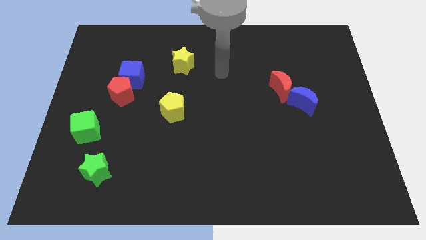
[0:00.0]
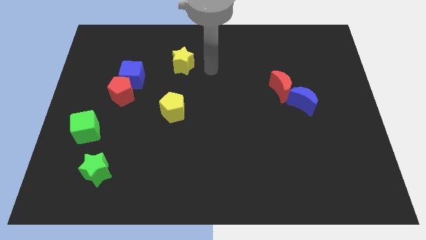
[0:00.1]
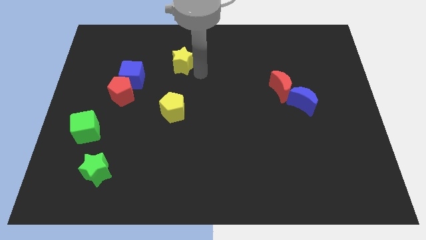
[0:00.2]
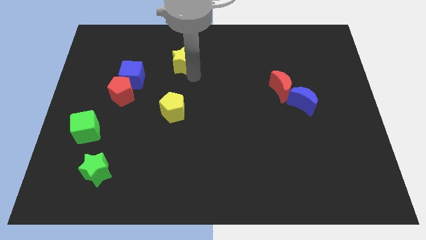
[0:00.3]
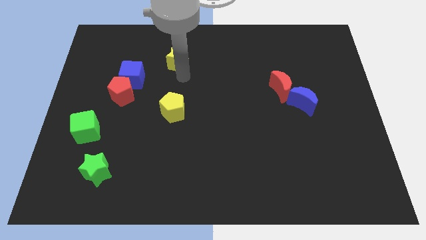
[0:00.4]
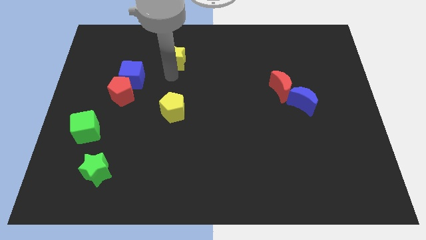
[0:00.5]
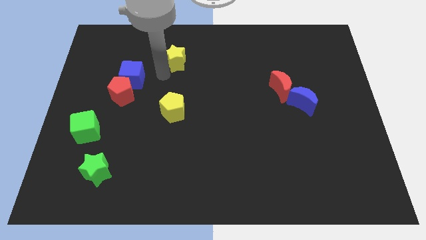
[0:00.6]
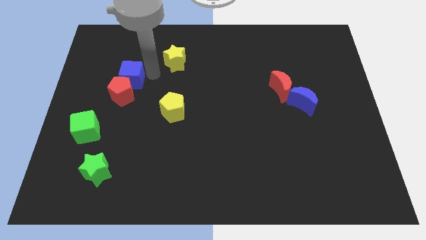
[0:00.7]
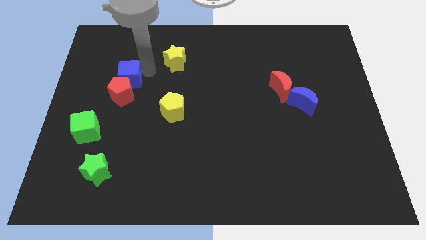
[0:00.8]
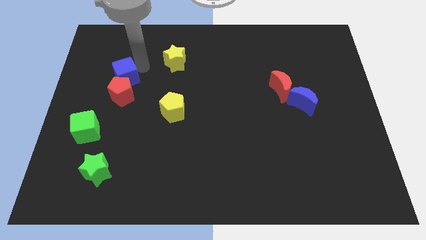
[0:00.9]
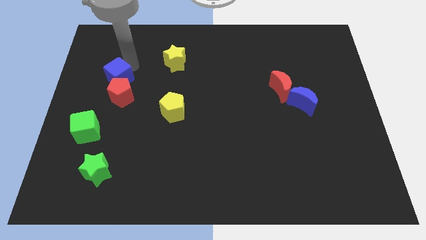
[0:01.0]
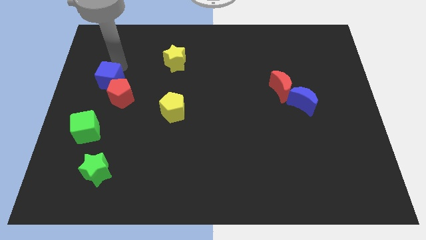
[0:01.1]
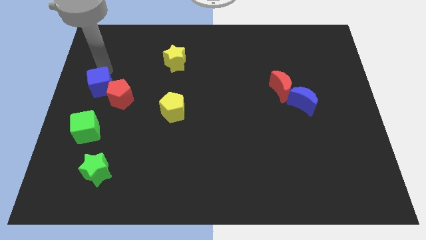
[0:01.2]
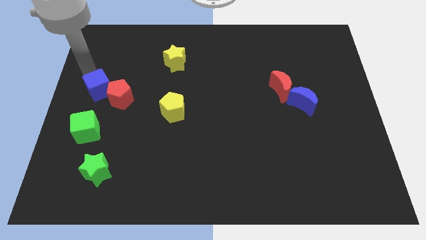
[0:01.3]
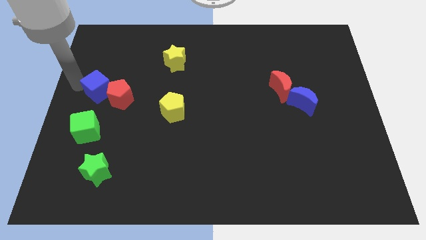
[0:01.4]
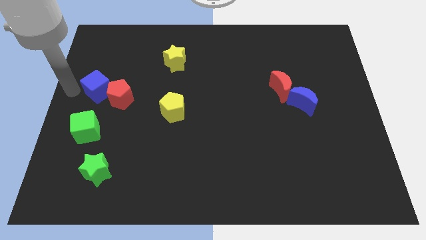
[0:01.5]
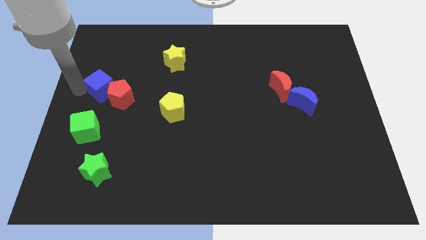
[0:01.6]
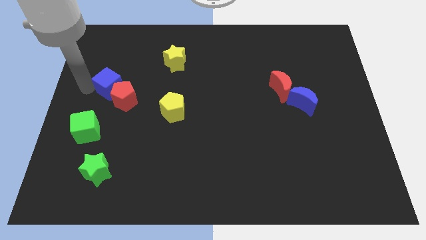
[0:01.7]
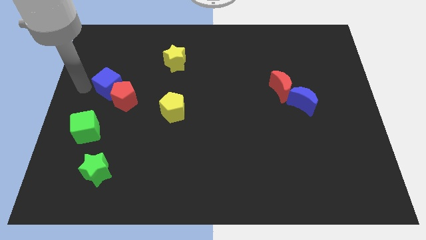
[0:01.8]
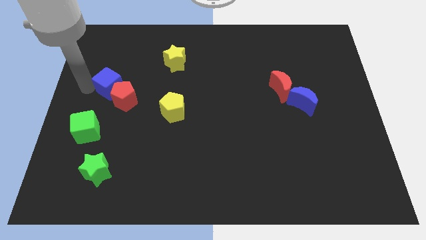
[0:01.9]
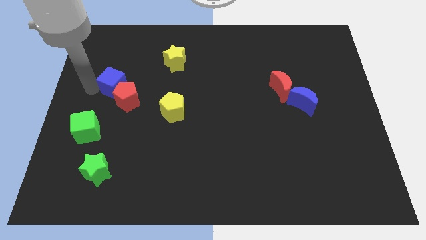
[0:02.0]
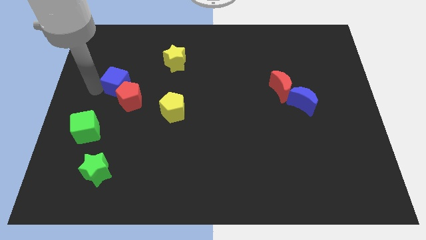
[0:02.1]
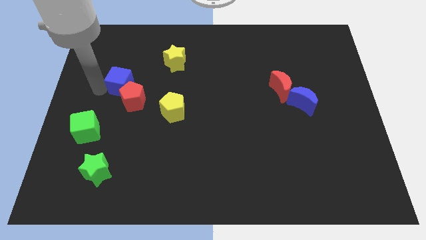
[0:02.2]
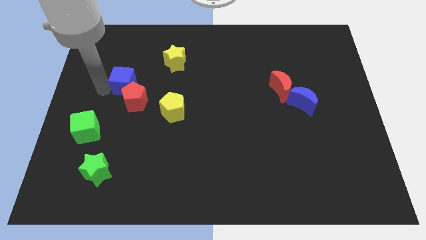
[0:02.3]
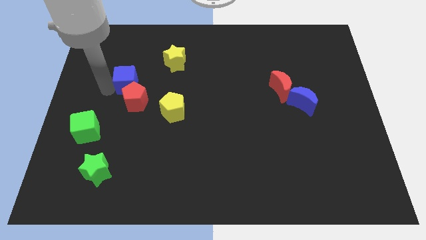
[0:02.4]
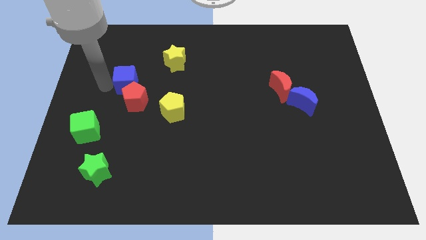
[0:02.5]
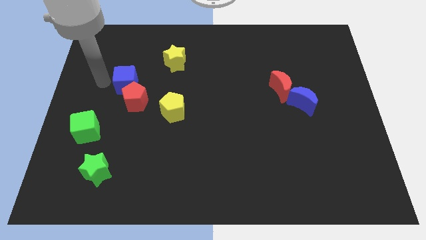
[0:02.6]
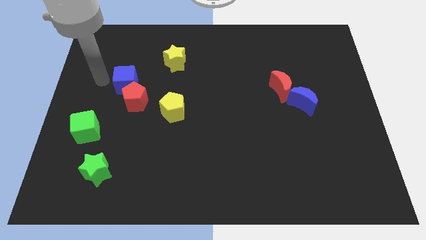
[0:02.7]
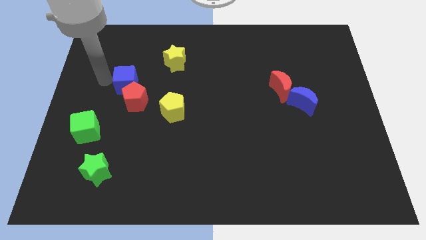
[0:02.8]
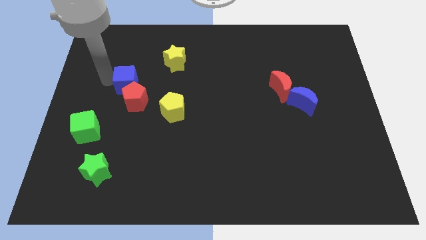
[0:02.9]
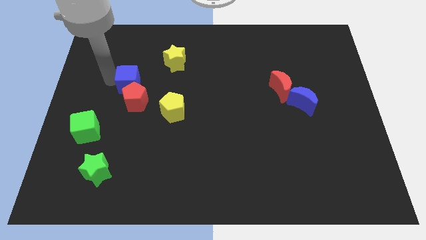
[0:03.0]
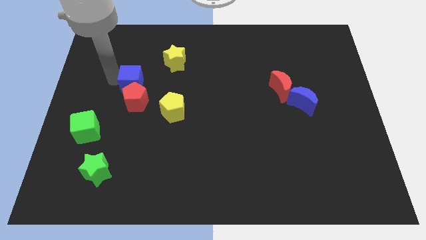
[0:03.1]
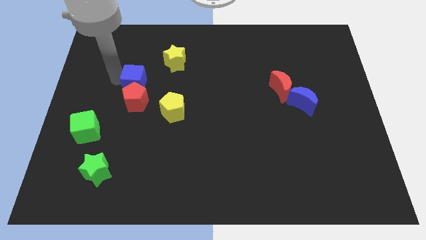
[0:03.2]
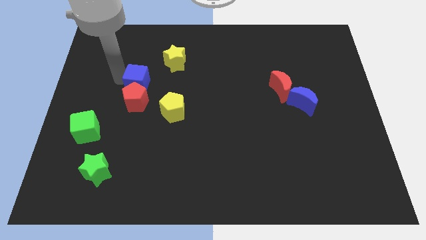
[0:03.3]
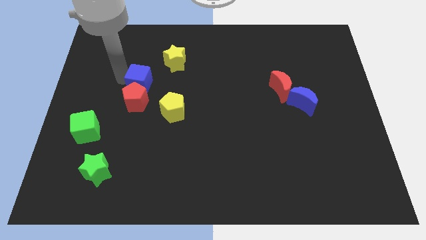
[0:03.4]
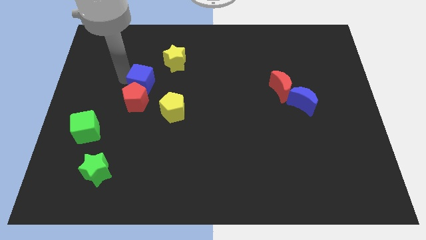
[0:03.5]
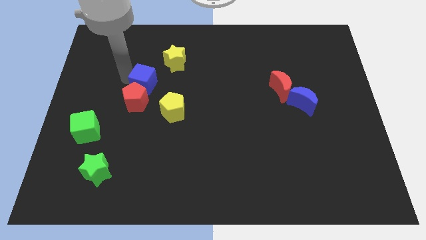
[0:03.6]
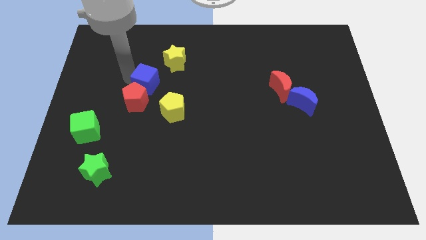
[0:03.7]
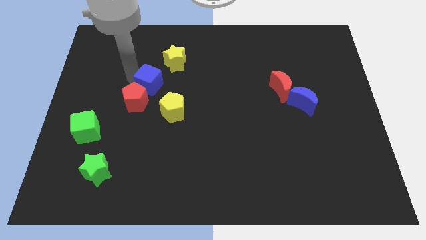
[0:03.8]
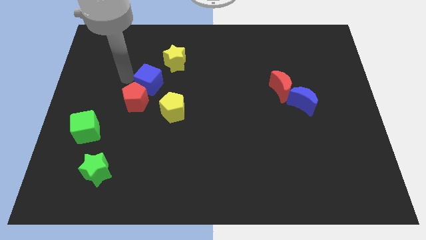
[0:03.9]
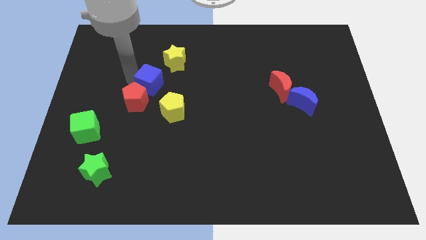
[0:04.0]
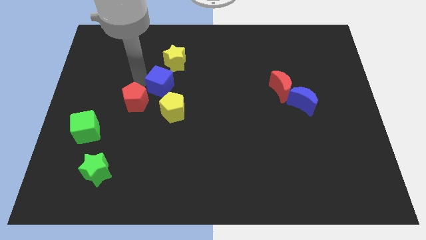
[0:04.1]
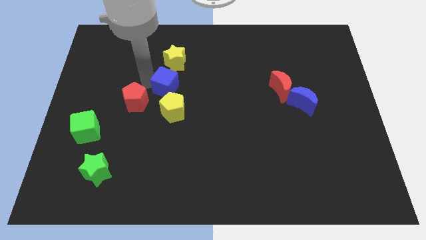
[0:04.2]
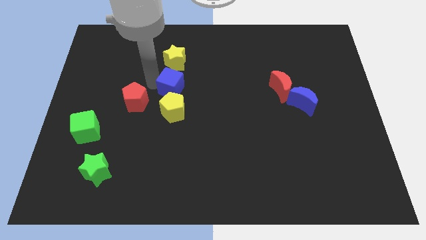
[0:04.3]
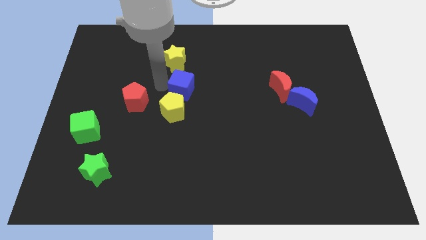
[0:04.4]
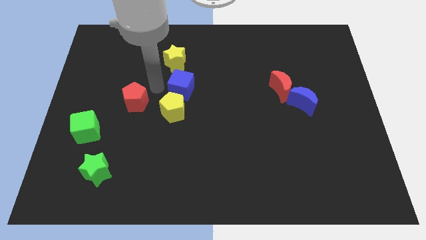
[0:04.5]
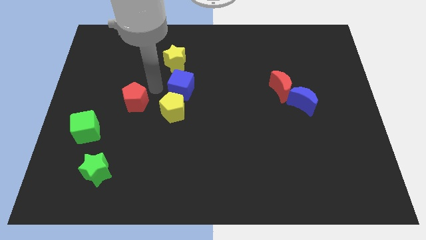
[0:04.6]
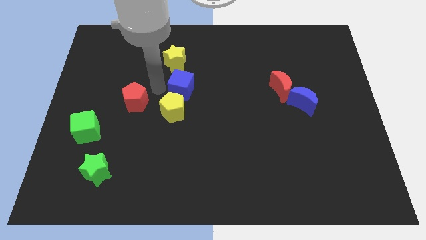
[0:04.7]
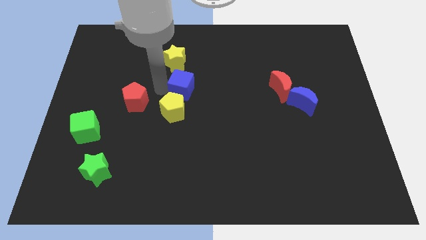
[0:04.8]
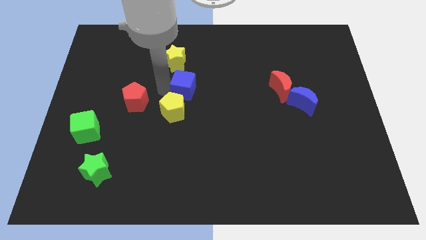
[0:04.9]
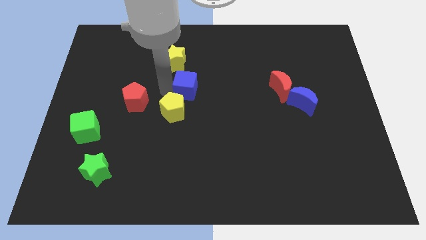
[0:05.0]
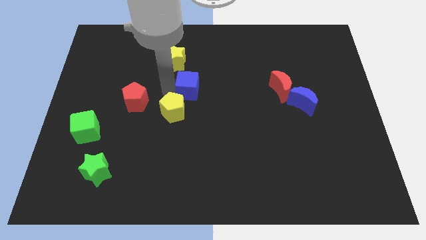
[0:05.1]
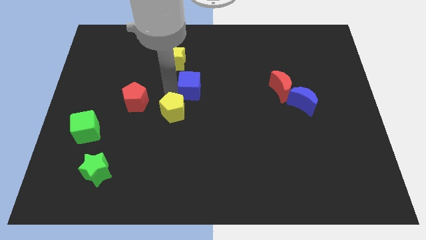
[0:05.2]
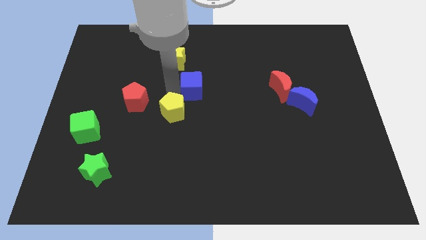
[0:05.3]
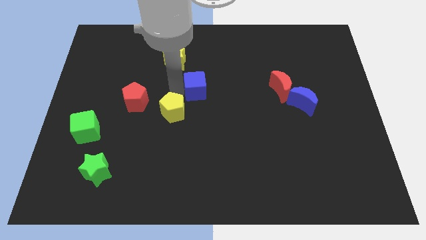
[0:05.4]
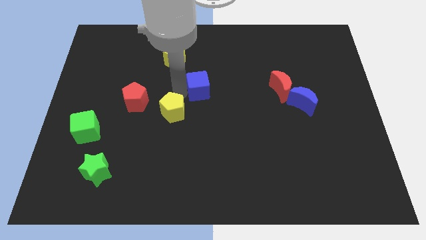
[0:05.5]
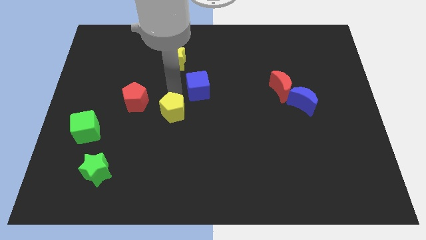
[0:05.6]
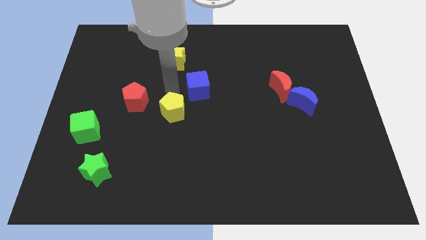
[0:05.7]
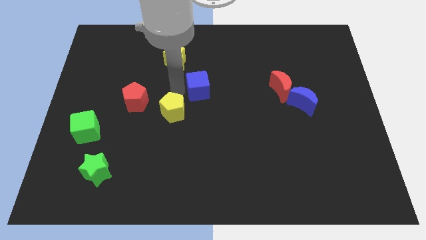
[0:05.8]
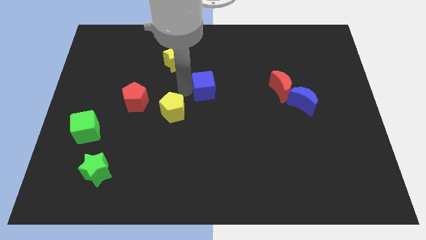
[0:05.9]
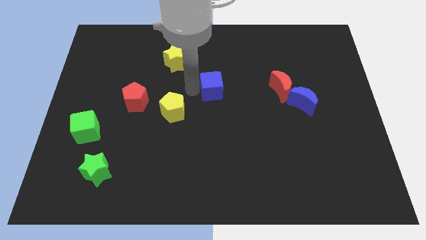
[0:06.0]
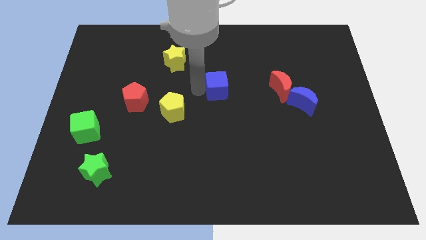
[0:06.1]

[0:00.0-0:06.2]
slide the blue cube to the right

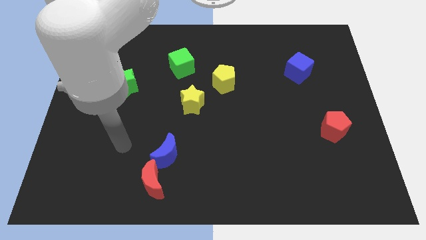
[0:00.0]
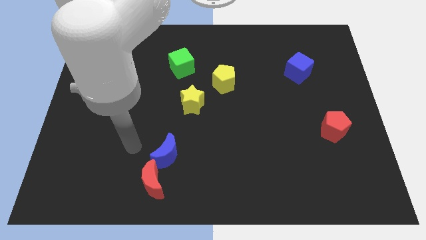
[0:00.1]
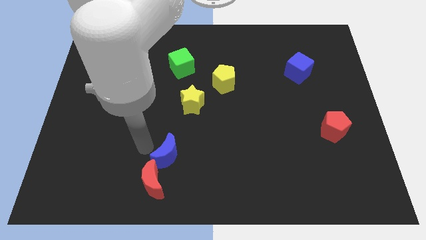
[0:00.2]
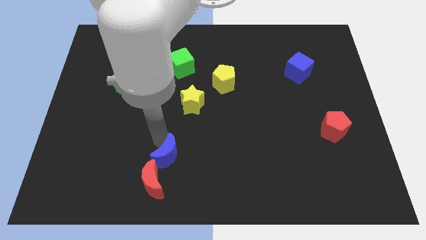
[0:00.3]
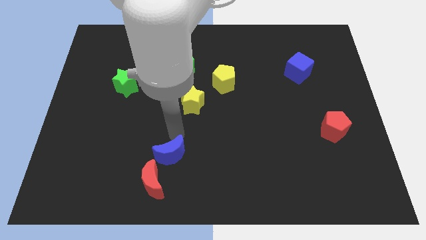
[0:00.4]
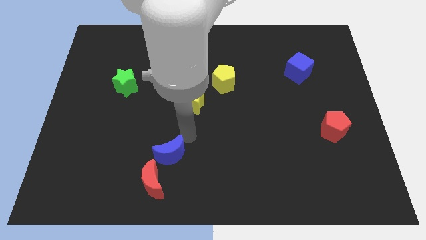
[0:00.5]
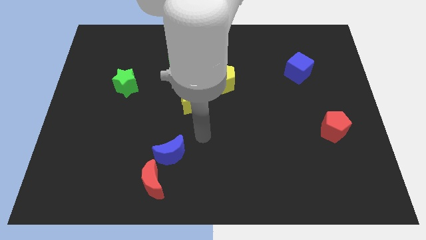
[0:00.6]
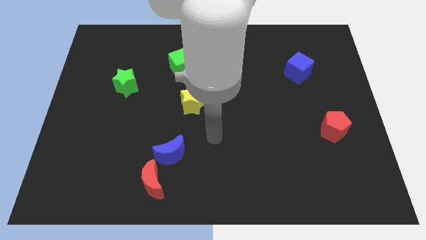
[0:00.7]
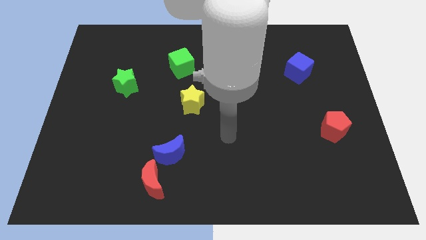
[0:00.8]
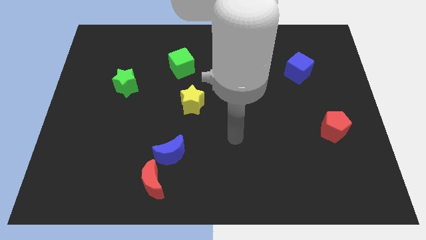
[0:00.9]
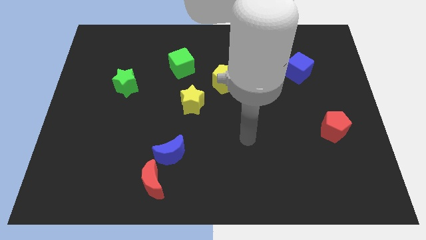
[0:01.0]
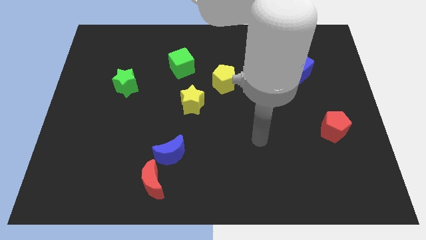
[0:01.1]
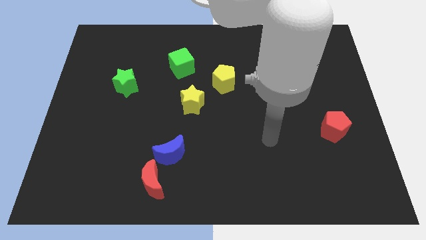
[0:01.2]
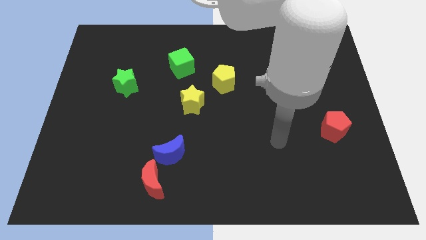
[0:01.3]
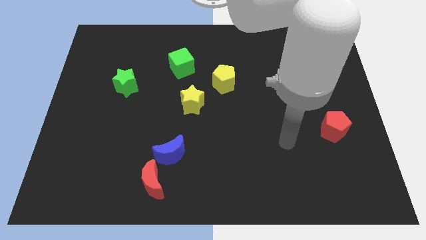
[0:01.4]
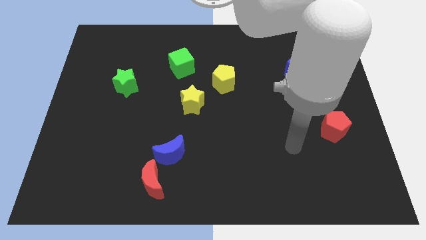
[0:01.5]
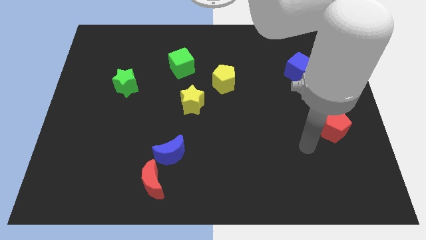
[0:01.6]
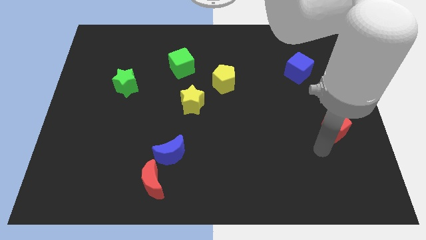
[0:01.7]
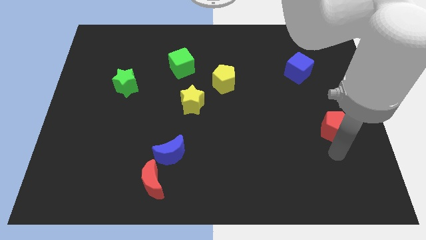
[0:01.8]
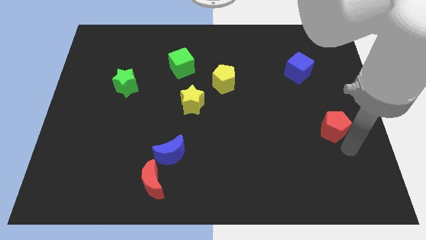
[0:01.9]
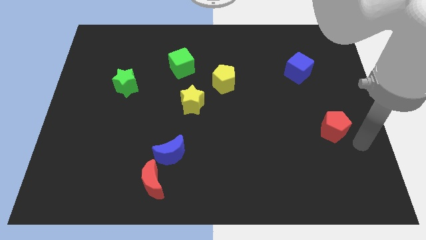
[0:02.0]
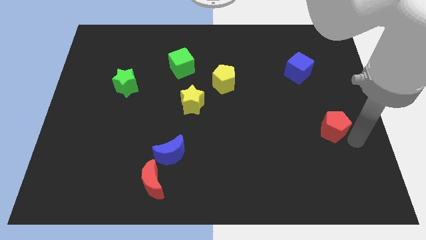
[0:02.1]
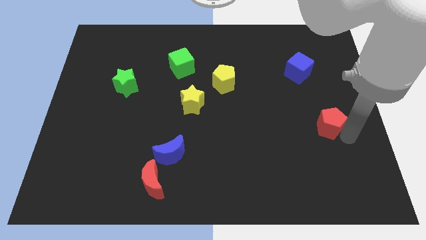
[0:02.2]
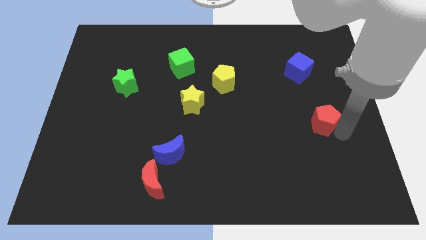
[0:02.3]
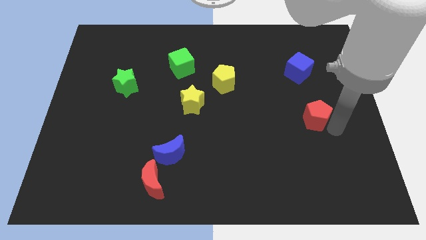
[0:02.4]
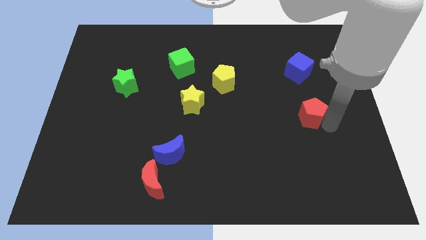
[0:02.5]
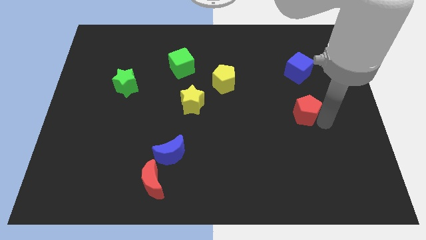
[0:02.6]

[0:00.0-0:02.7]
slightly move the red pentagon up and then left
